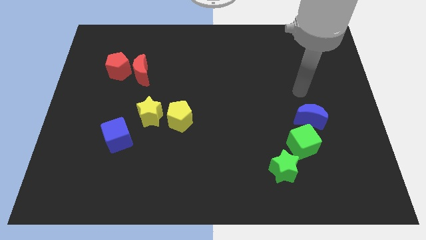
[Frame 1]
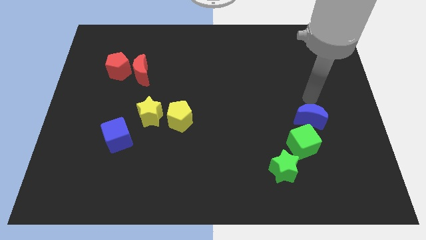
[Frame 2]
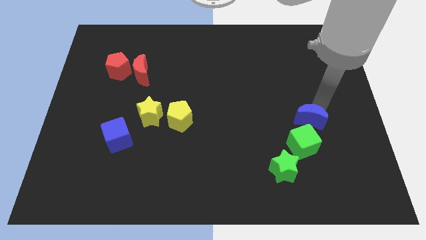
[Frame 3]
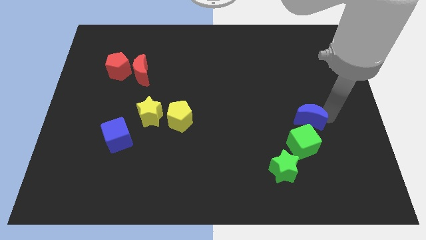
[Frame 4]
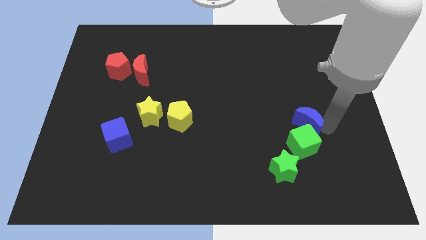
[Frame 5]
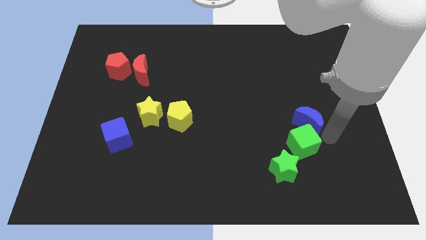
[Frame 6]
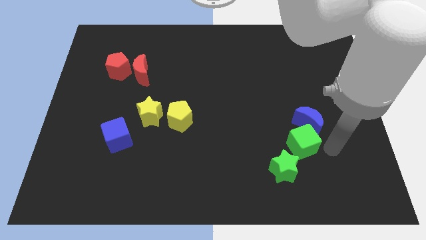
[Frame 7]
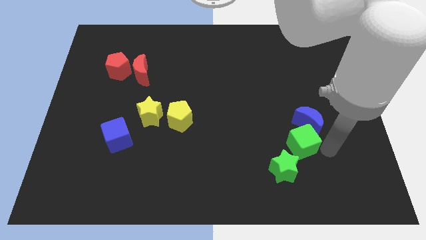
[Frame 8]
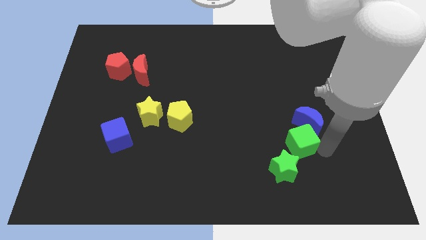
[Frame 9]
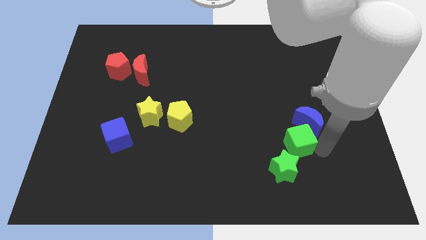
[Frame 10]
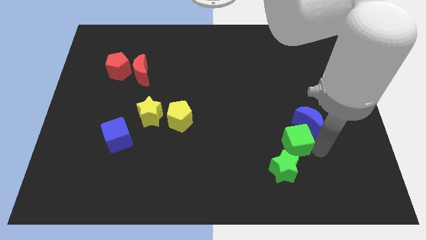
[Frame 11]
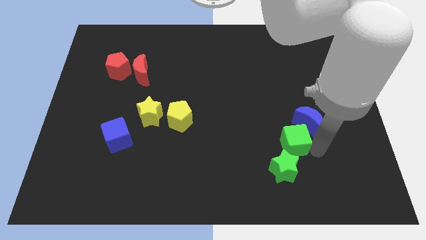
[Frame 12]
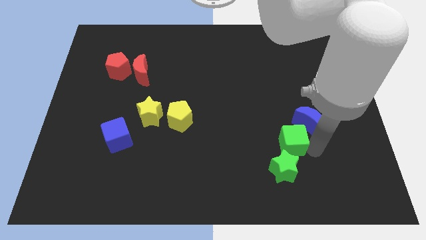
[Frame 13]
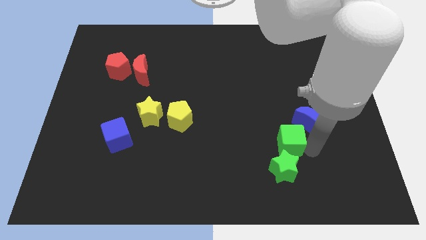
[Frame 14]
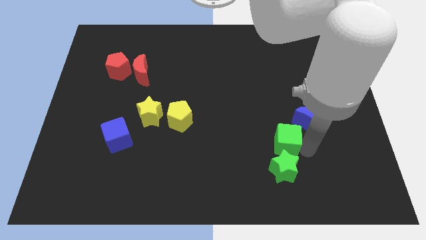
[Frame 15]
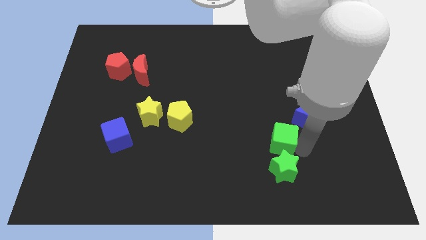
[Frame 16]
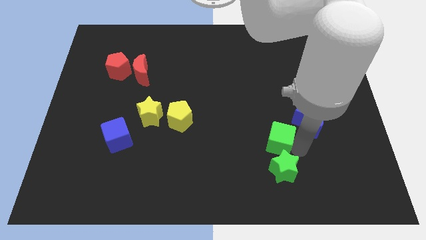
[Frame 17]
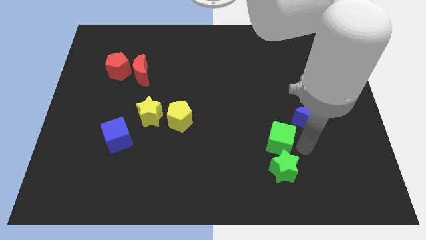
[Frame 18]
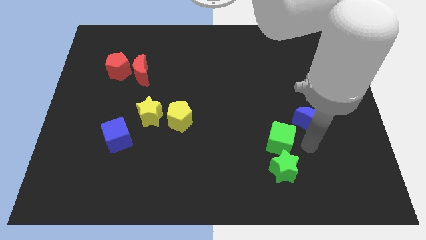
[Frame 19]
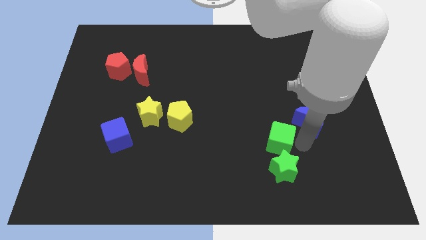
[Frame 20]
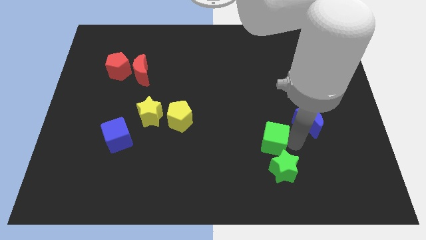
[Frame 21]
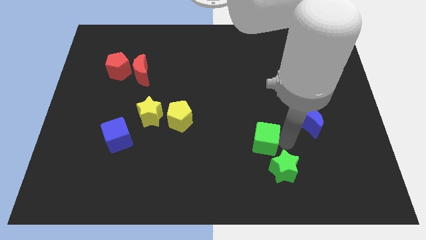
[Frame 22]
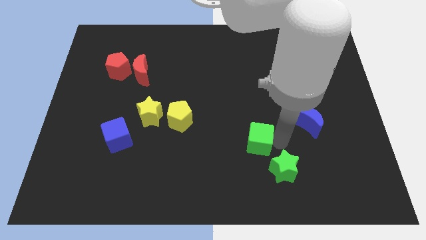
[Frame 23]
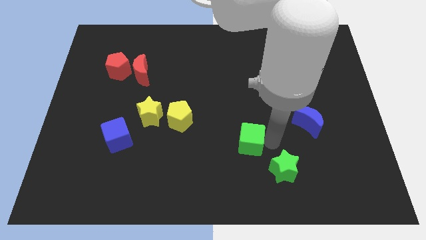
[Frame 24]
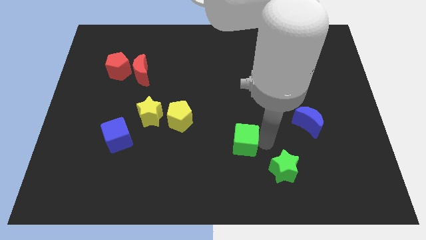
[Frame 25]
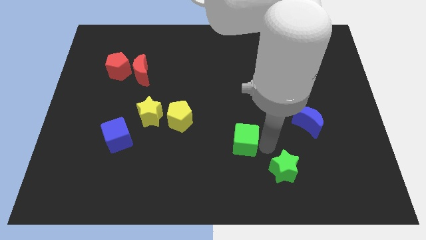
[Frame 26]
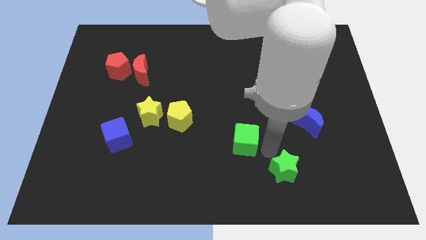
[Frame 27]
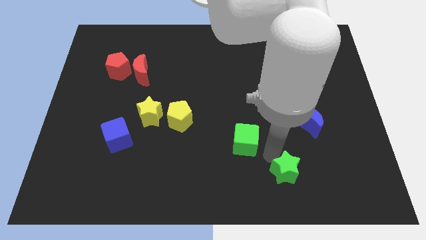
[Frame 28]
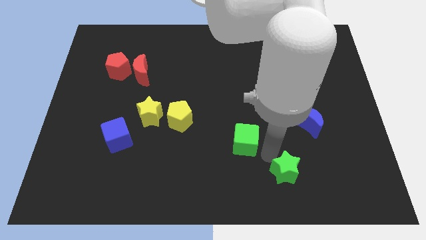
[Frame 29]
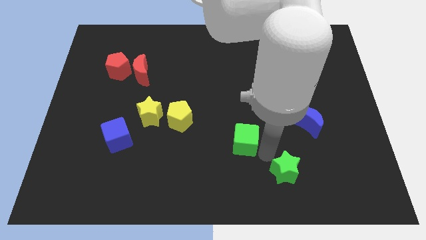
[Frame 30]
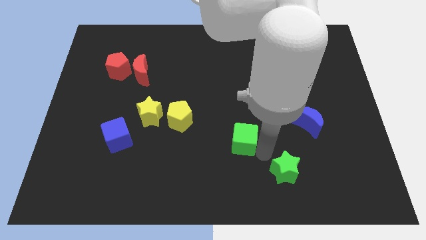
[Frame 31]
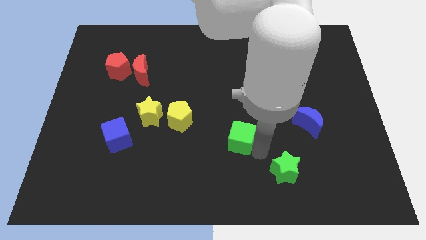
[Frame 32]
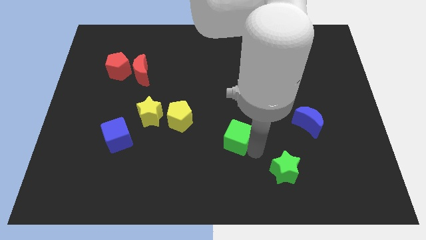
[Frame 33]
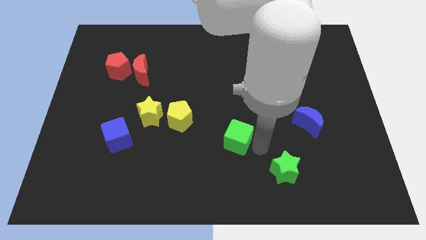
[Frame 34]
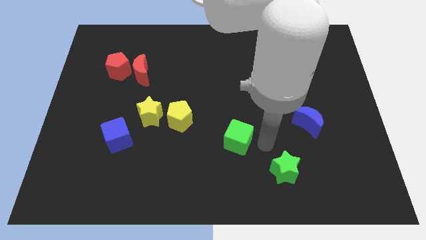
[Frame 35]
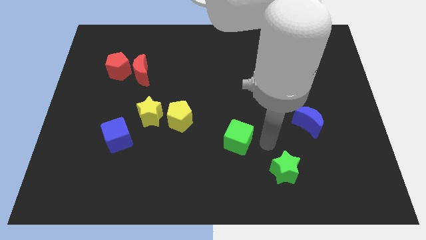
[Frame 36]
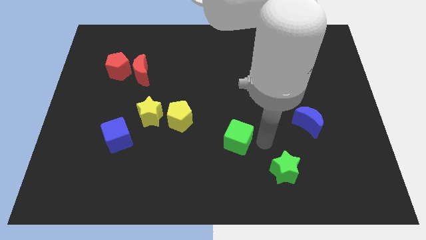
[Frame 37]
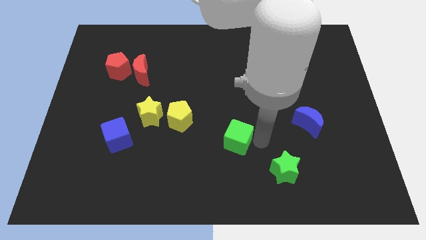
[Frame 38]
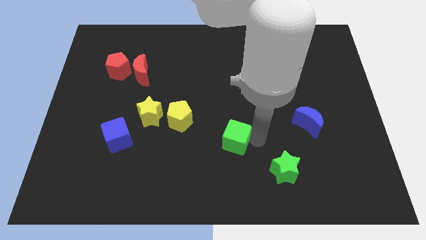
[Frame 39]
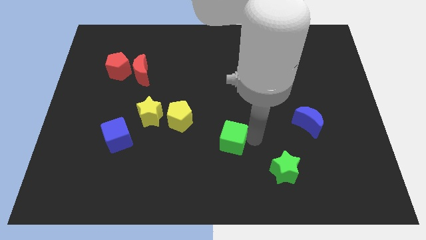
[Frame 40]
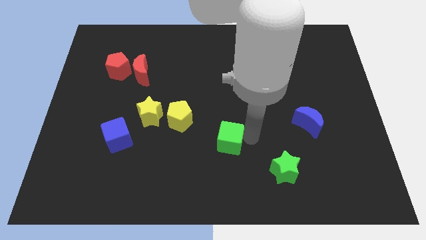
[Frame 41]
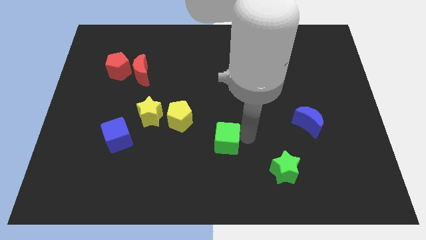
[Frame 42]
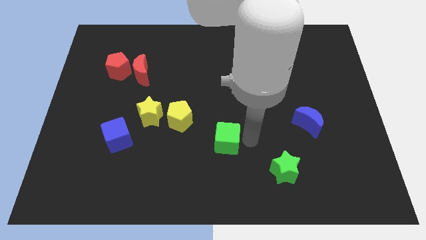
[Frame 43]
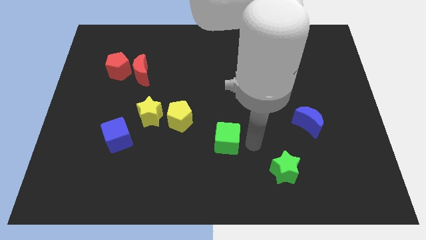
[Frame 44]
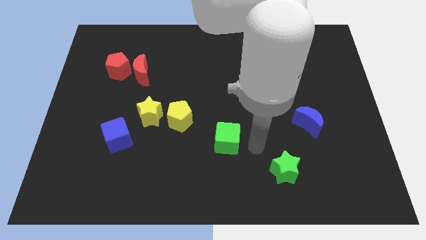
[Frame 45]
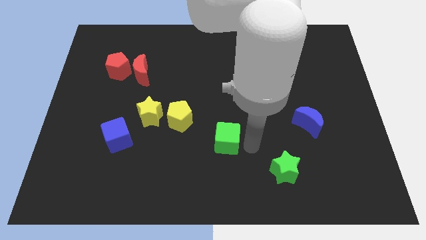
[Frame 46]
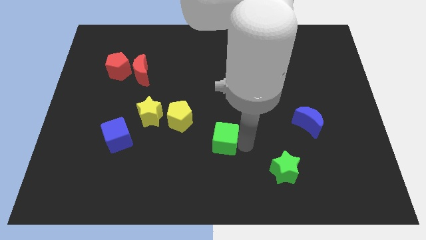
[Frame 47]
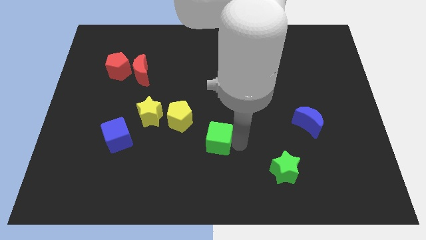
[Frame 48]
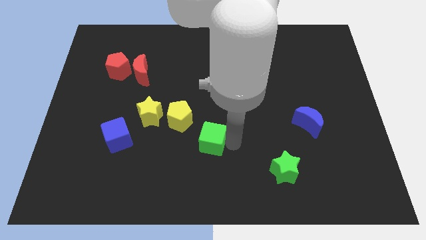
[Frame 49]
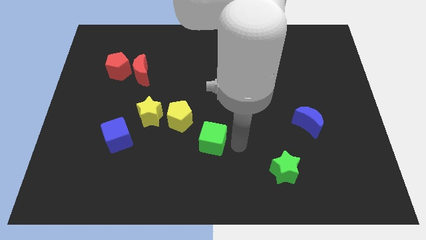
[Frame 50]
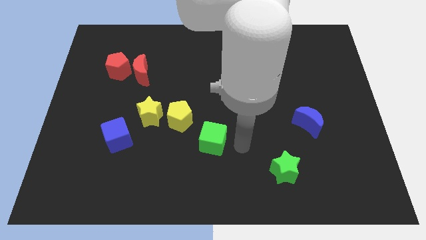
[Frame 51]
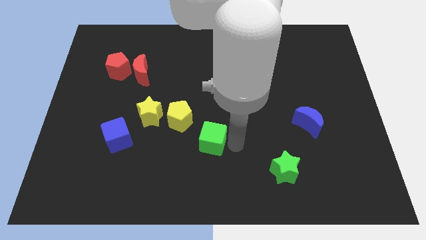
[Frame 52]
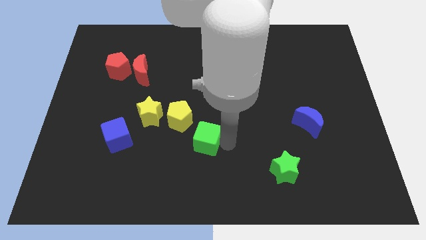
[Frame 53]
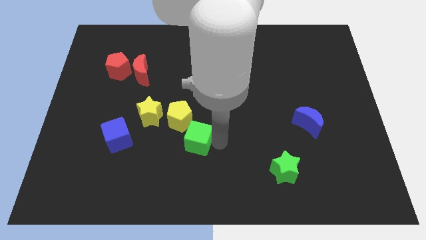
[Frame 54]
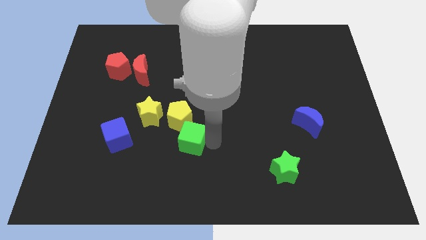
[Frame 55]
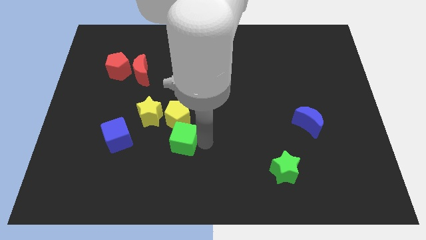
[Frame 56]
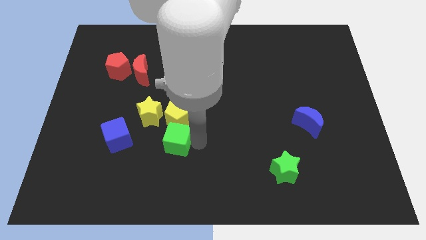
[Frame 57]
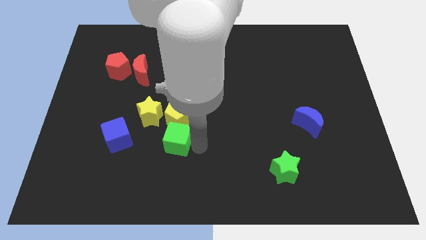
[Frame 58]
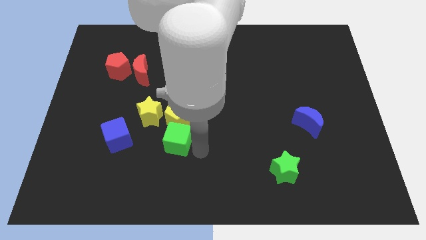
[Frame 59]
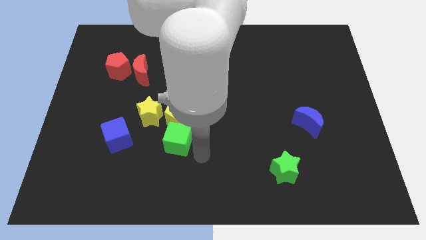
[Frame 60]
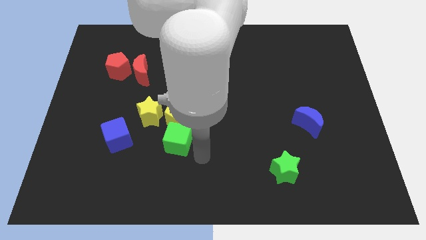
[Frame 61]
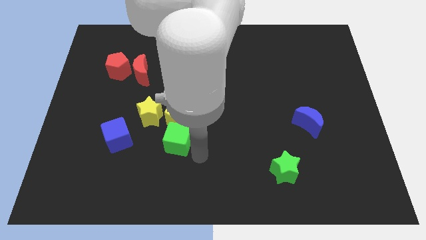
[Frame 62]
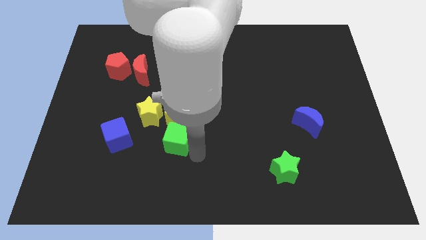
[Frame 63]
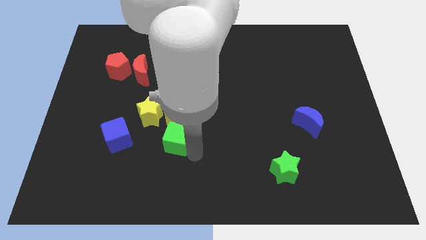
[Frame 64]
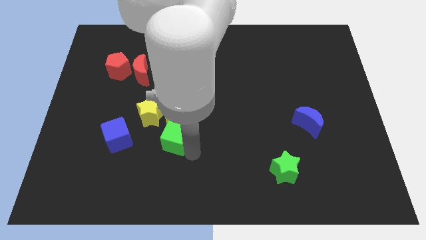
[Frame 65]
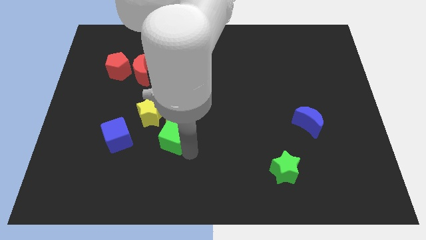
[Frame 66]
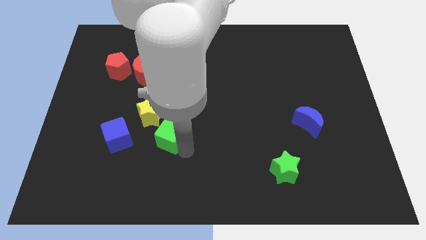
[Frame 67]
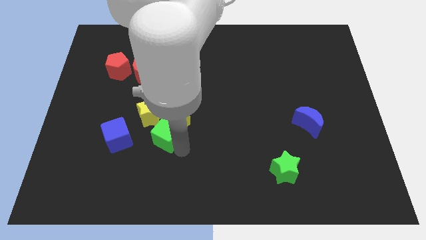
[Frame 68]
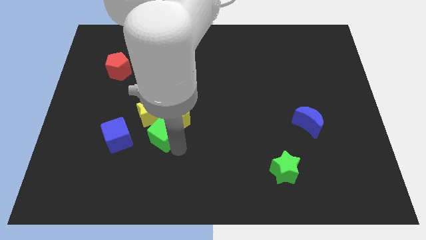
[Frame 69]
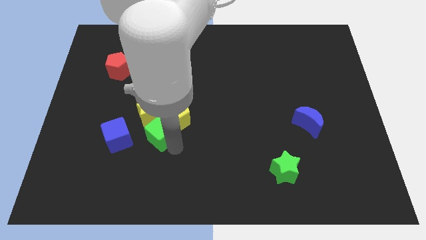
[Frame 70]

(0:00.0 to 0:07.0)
slide the green cube next to the yellow star

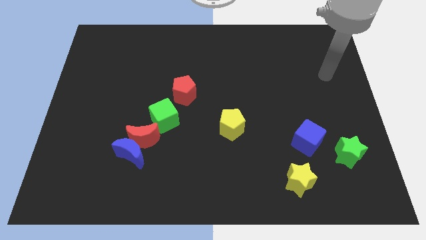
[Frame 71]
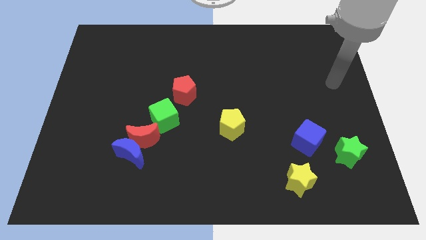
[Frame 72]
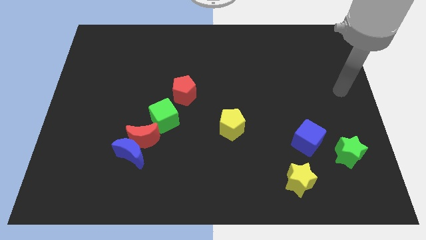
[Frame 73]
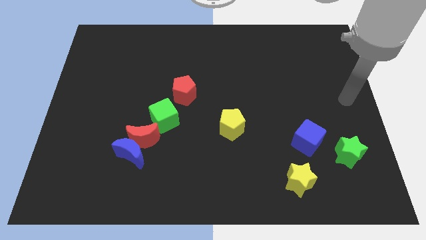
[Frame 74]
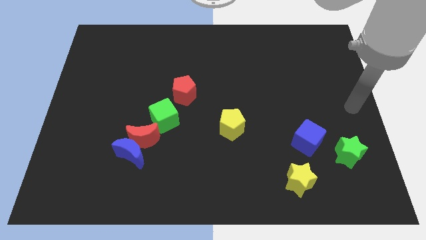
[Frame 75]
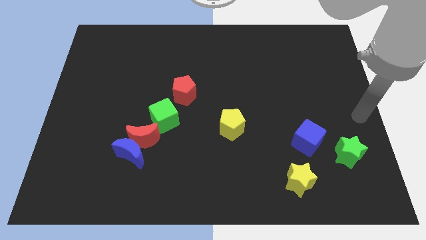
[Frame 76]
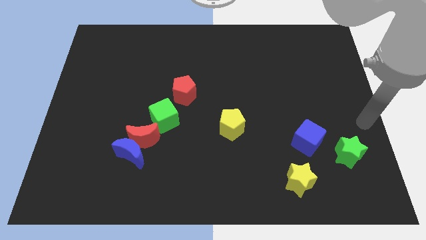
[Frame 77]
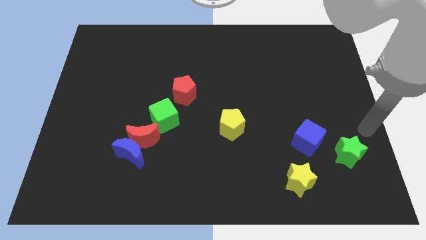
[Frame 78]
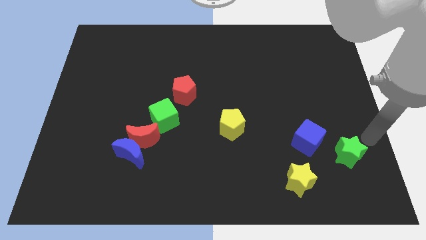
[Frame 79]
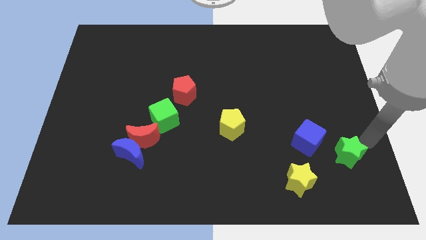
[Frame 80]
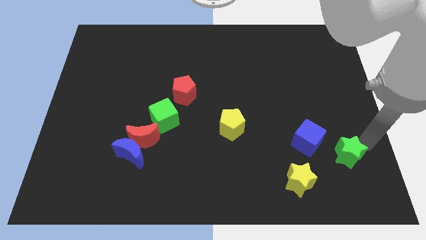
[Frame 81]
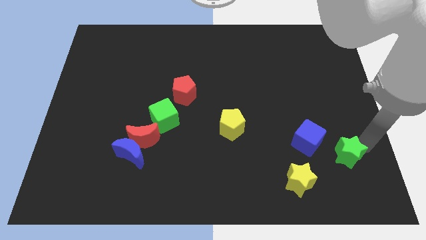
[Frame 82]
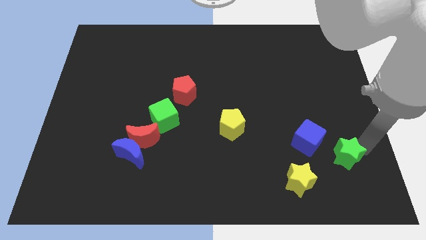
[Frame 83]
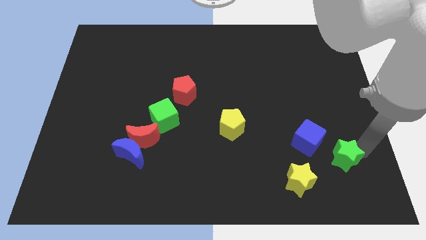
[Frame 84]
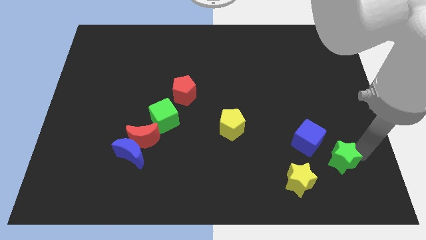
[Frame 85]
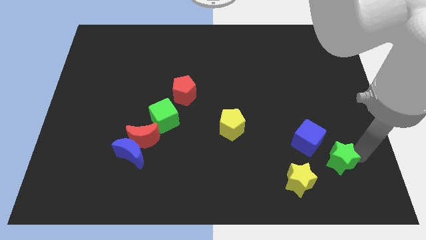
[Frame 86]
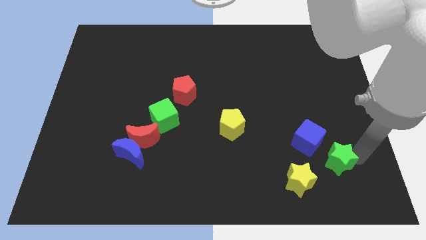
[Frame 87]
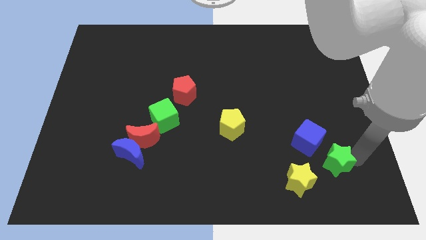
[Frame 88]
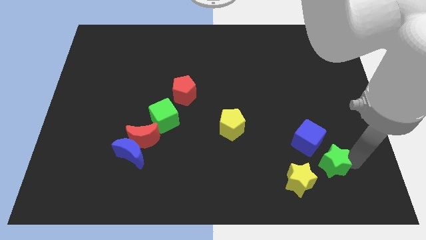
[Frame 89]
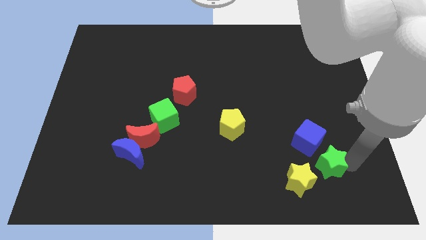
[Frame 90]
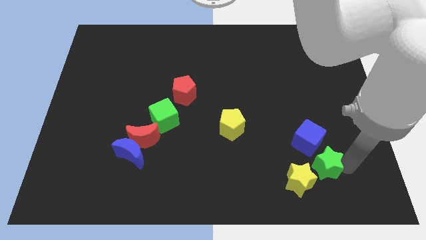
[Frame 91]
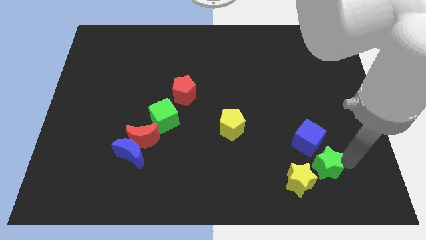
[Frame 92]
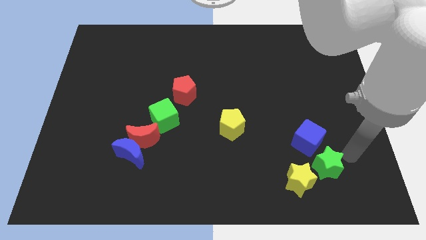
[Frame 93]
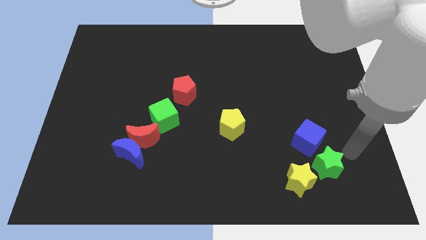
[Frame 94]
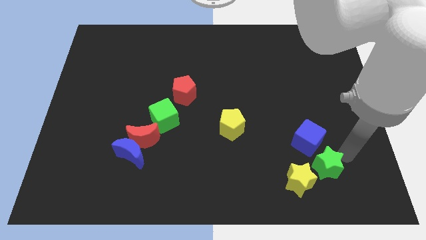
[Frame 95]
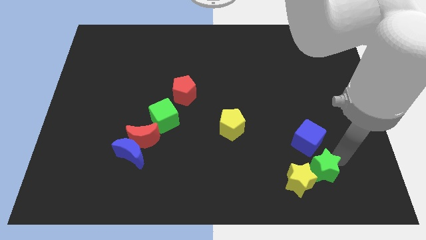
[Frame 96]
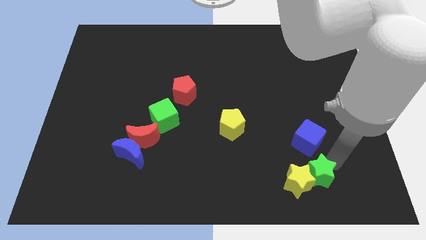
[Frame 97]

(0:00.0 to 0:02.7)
push the green star close to the yellow star
